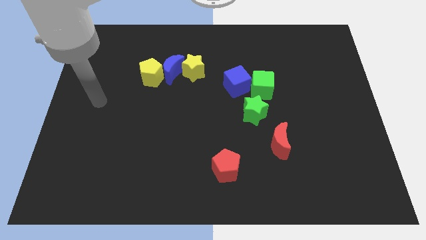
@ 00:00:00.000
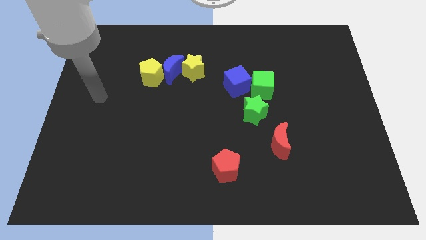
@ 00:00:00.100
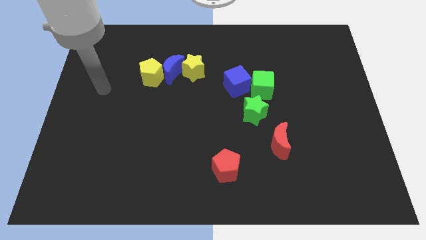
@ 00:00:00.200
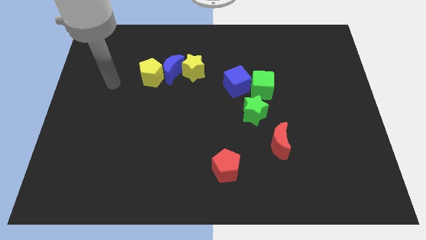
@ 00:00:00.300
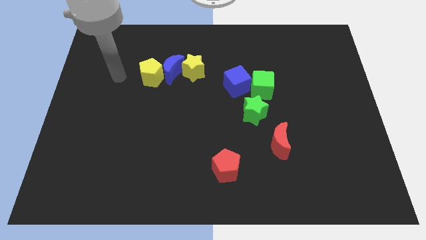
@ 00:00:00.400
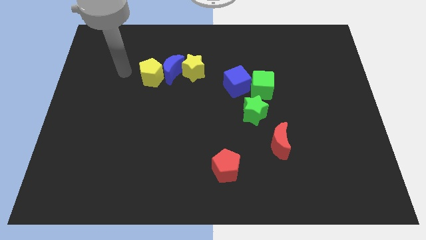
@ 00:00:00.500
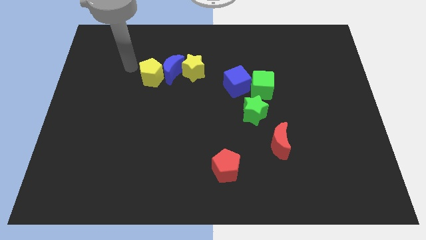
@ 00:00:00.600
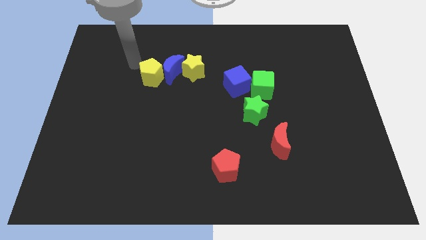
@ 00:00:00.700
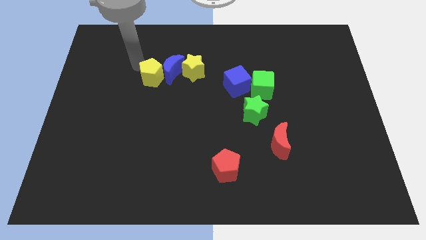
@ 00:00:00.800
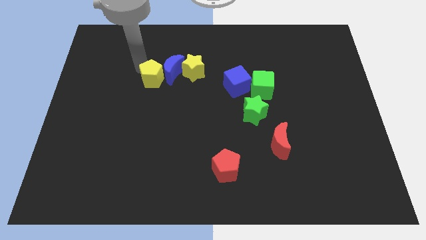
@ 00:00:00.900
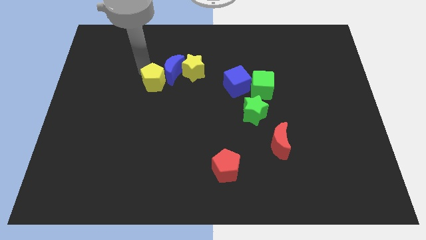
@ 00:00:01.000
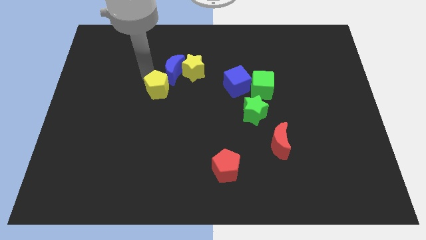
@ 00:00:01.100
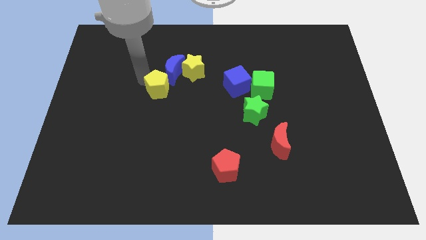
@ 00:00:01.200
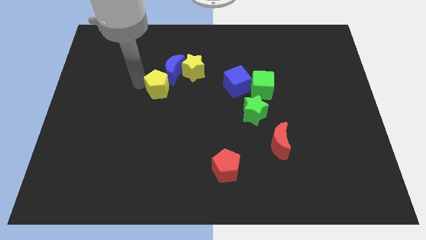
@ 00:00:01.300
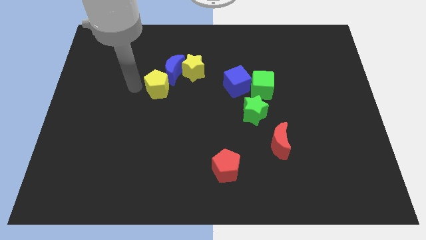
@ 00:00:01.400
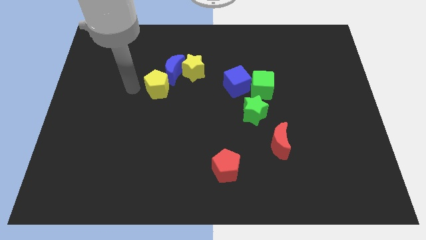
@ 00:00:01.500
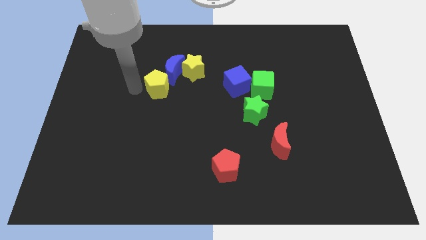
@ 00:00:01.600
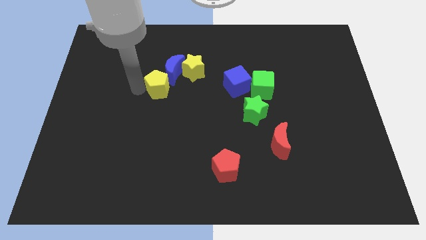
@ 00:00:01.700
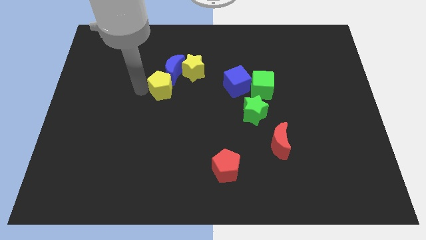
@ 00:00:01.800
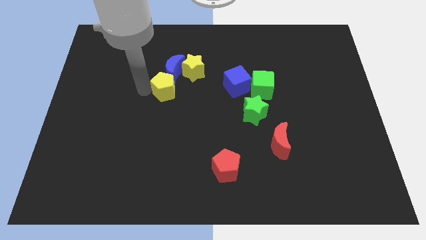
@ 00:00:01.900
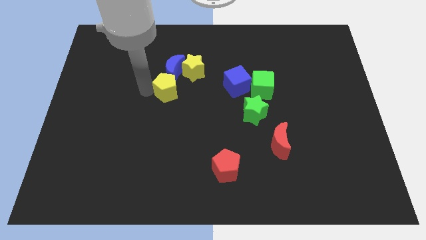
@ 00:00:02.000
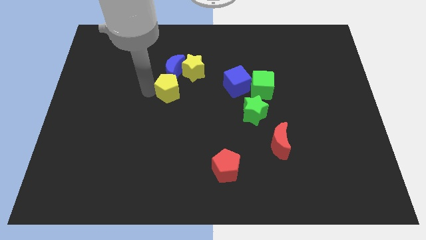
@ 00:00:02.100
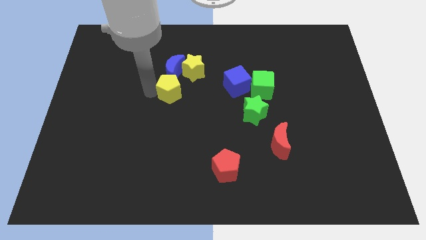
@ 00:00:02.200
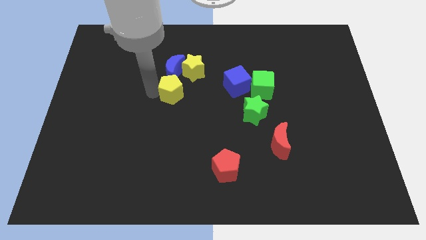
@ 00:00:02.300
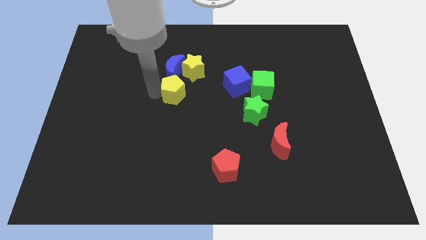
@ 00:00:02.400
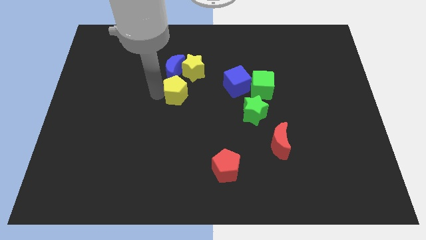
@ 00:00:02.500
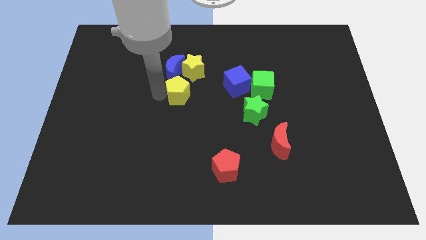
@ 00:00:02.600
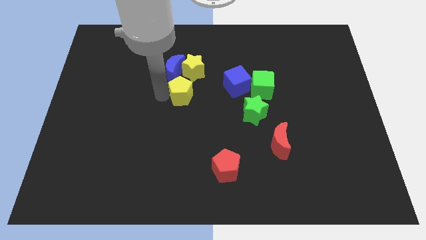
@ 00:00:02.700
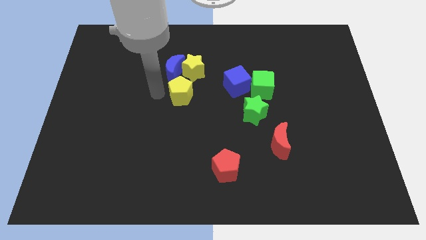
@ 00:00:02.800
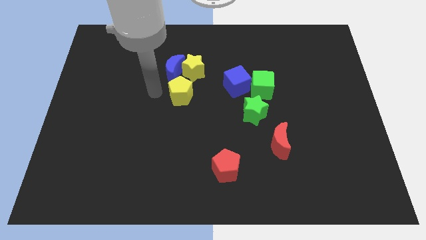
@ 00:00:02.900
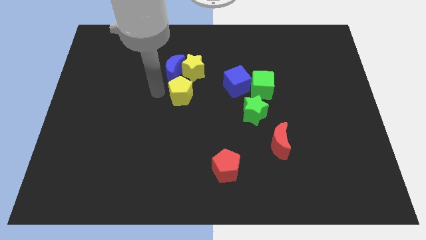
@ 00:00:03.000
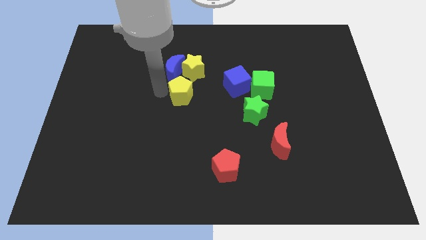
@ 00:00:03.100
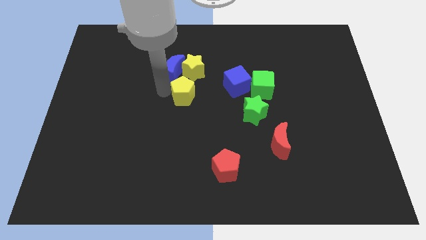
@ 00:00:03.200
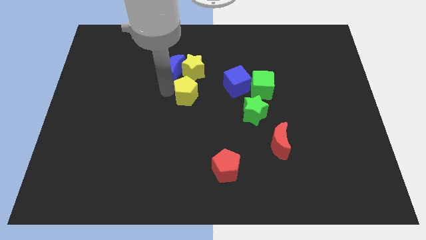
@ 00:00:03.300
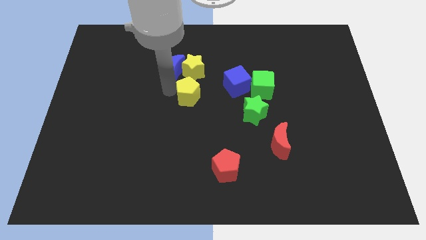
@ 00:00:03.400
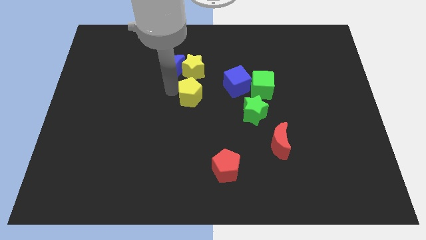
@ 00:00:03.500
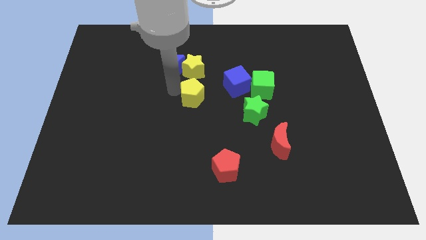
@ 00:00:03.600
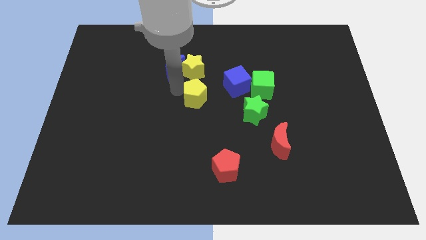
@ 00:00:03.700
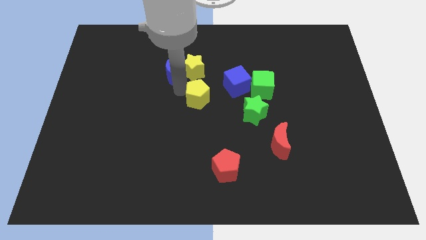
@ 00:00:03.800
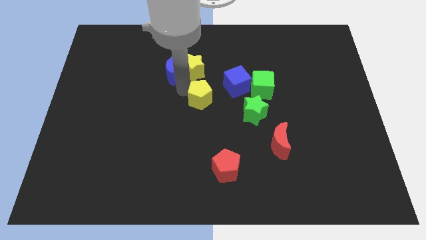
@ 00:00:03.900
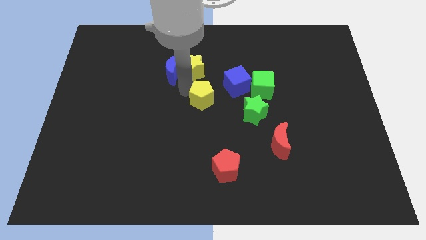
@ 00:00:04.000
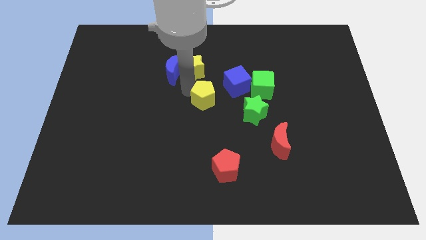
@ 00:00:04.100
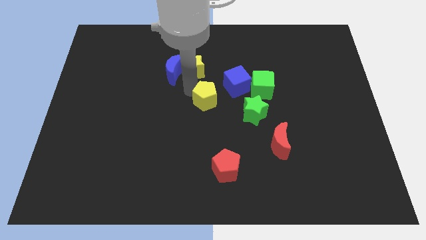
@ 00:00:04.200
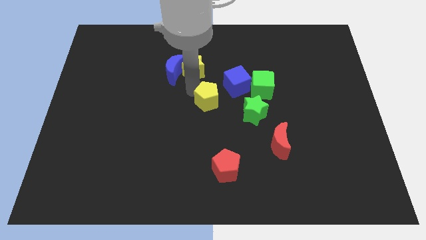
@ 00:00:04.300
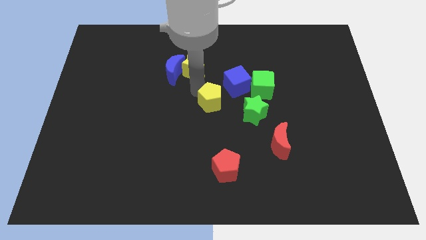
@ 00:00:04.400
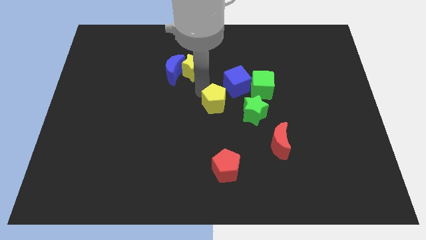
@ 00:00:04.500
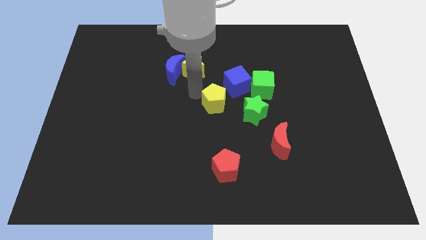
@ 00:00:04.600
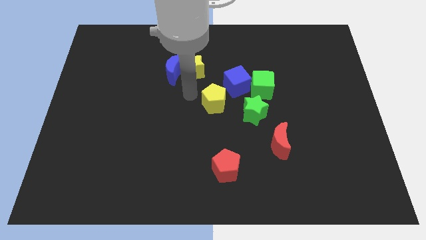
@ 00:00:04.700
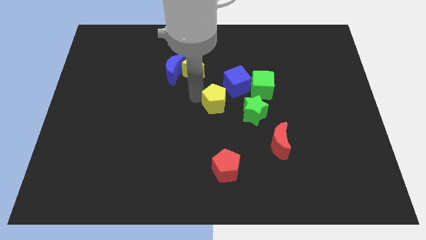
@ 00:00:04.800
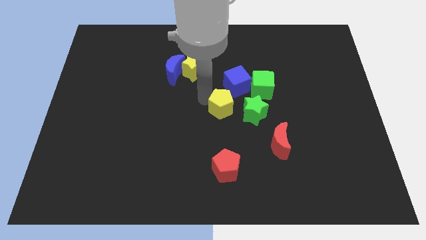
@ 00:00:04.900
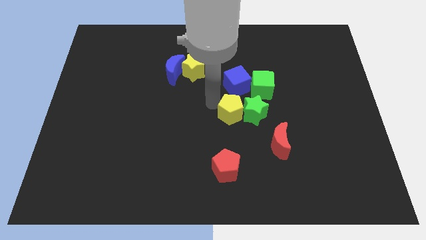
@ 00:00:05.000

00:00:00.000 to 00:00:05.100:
push the yellow pentagon next to the green star

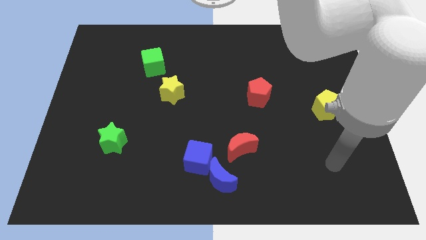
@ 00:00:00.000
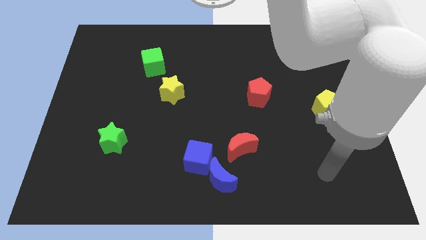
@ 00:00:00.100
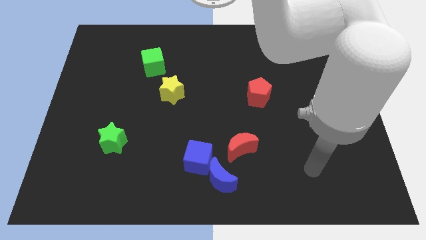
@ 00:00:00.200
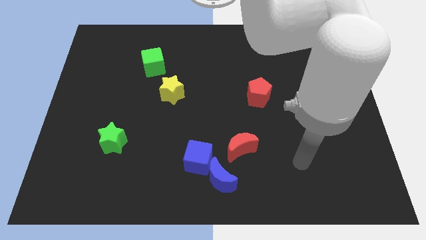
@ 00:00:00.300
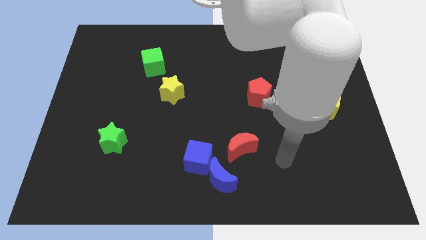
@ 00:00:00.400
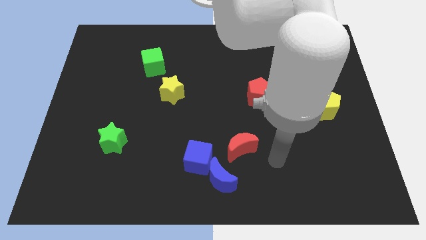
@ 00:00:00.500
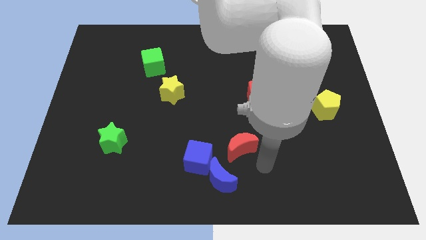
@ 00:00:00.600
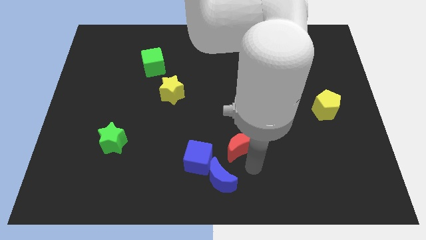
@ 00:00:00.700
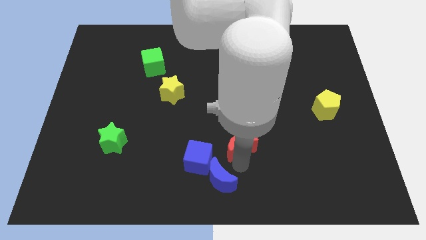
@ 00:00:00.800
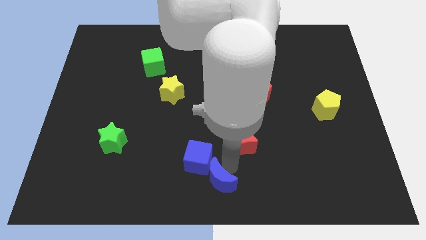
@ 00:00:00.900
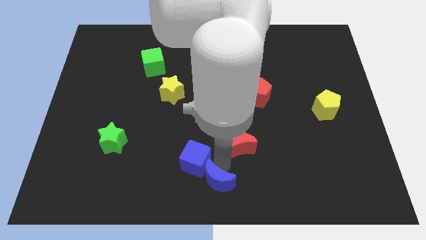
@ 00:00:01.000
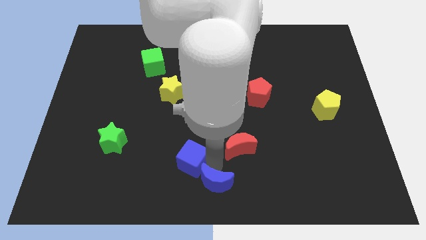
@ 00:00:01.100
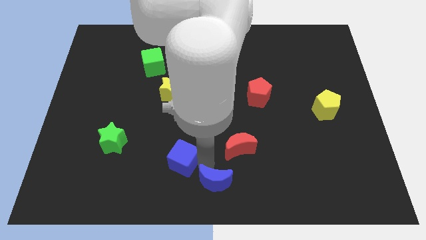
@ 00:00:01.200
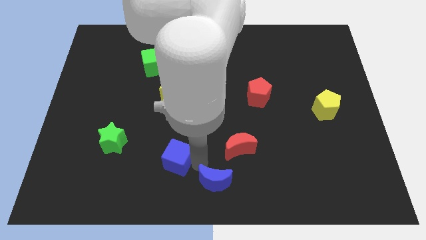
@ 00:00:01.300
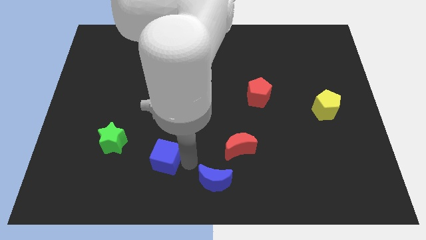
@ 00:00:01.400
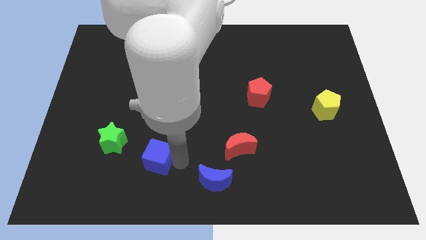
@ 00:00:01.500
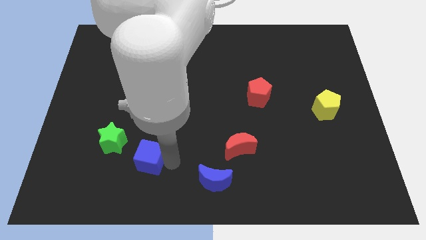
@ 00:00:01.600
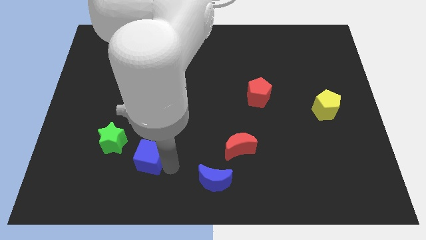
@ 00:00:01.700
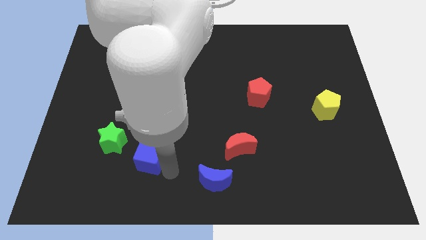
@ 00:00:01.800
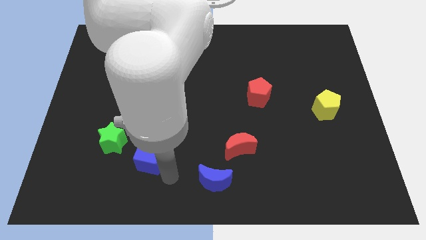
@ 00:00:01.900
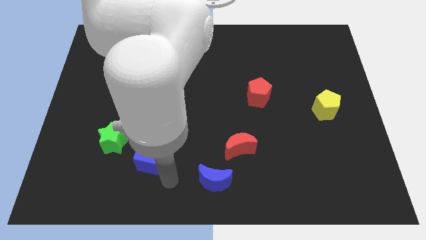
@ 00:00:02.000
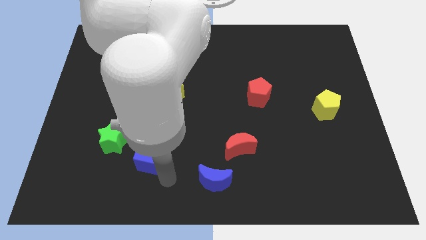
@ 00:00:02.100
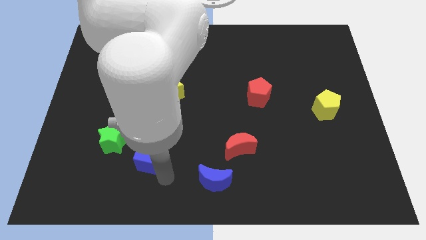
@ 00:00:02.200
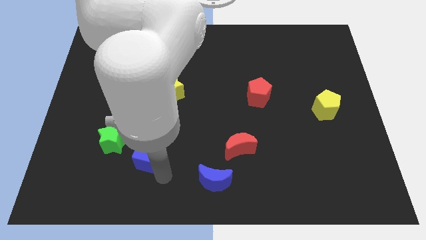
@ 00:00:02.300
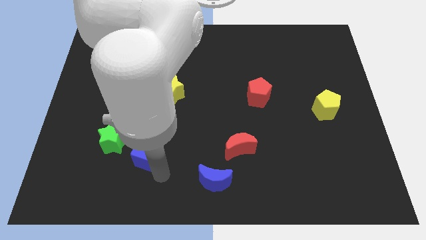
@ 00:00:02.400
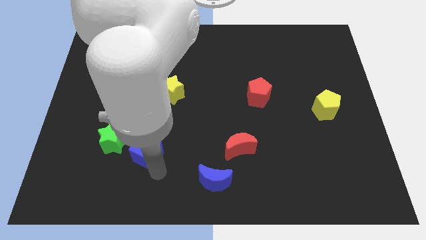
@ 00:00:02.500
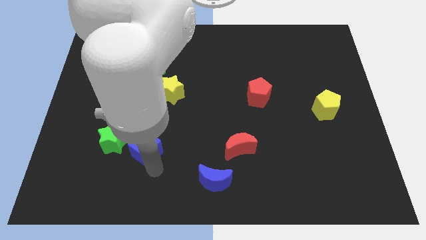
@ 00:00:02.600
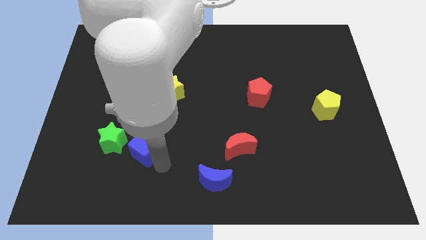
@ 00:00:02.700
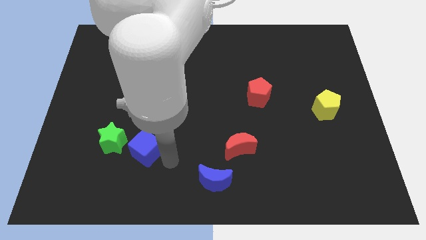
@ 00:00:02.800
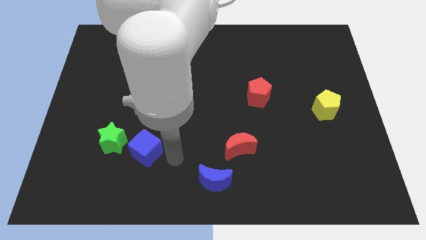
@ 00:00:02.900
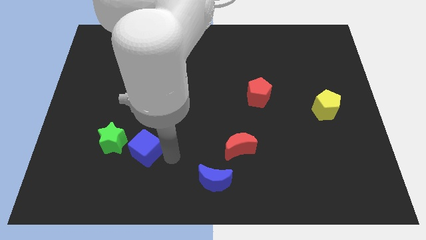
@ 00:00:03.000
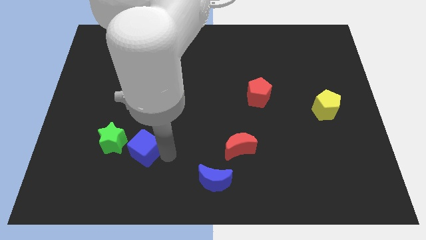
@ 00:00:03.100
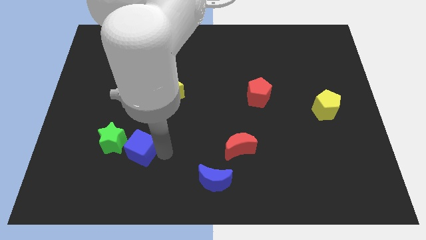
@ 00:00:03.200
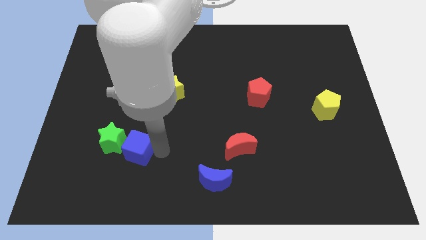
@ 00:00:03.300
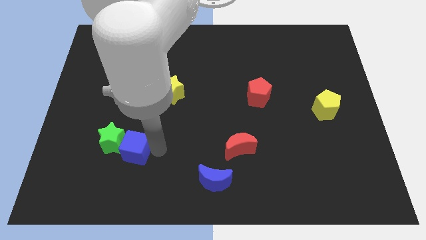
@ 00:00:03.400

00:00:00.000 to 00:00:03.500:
push the blue cube next to the green star
